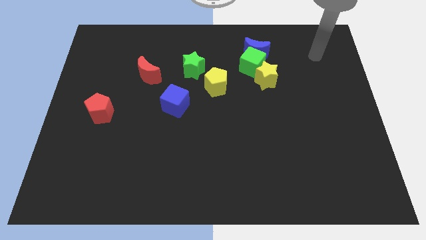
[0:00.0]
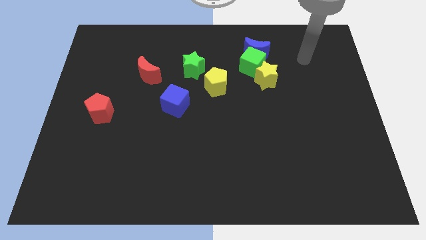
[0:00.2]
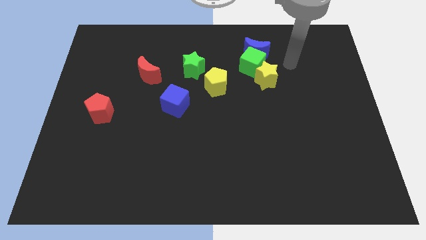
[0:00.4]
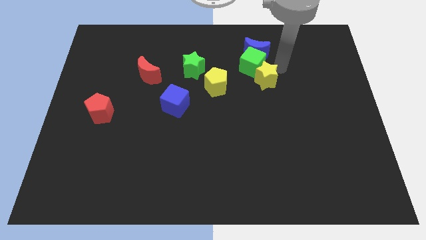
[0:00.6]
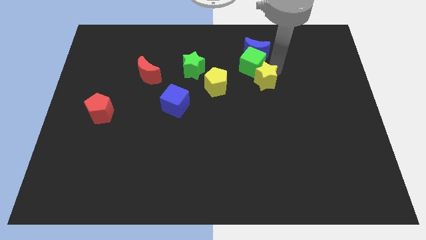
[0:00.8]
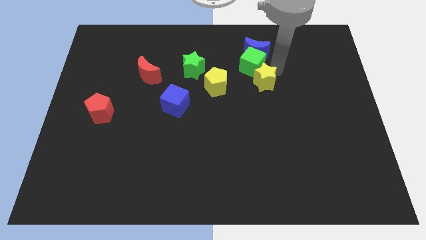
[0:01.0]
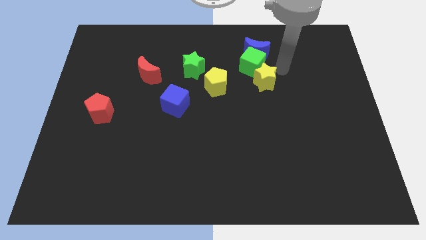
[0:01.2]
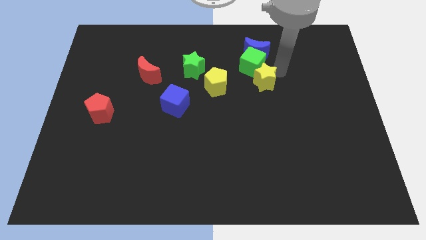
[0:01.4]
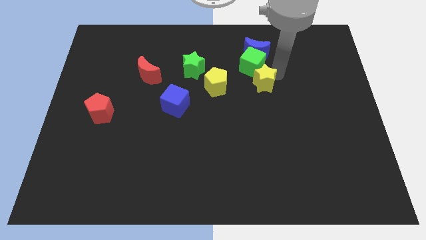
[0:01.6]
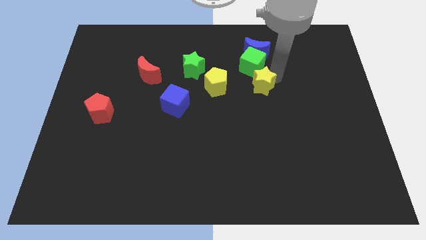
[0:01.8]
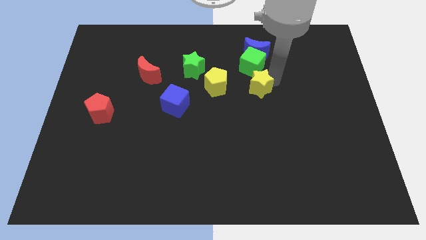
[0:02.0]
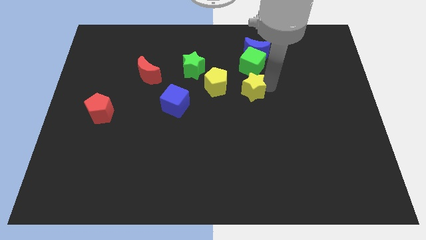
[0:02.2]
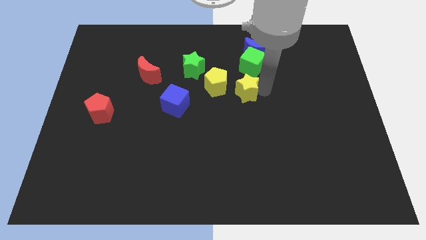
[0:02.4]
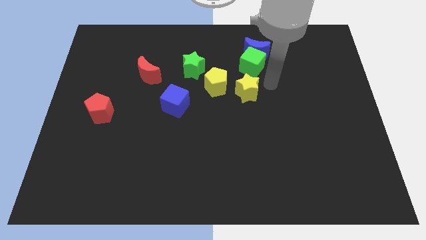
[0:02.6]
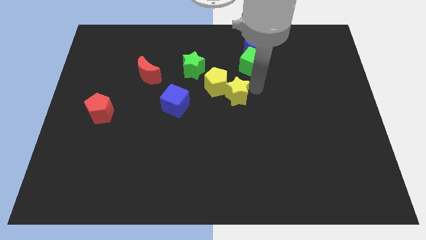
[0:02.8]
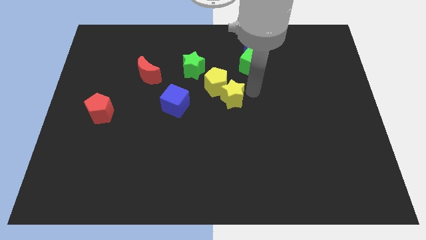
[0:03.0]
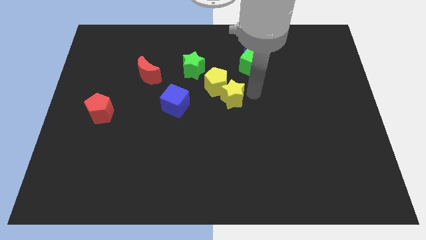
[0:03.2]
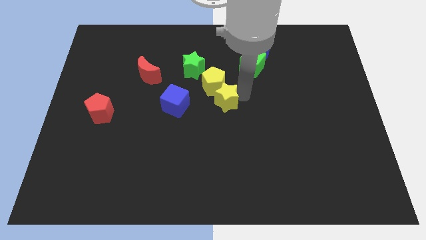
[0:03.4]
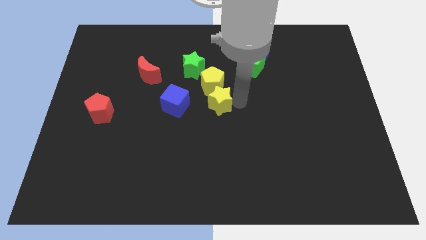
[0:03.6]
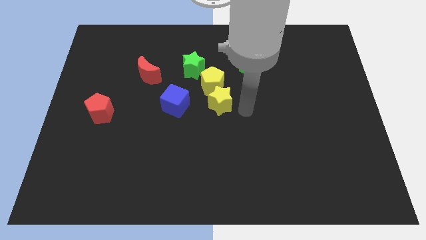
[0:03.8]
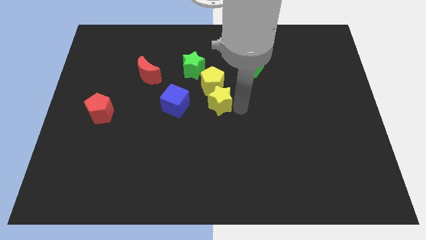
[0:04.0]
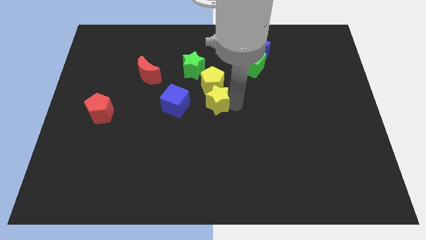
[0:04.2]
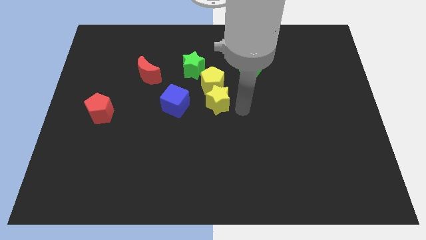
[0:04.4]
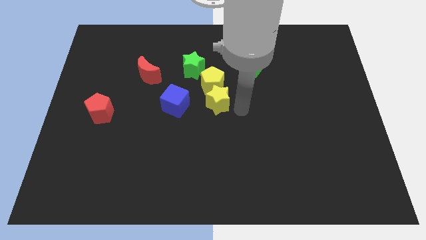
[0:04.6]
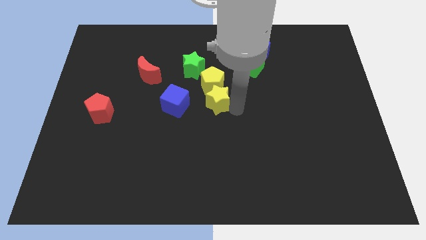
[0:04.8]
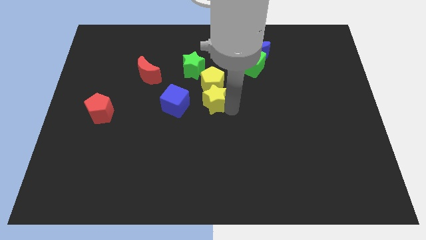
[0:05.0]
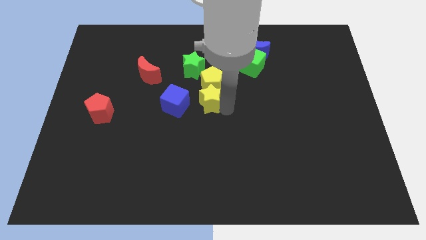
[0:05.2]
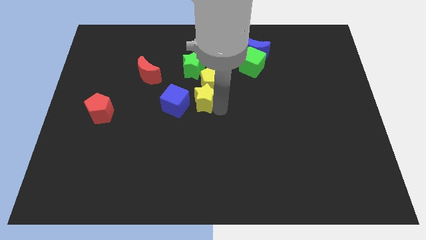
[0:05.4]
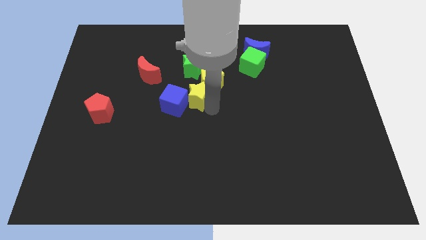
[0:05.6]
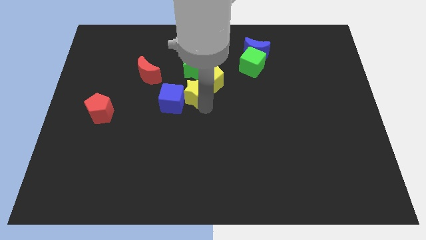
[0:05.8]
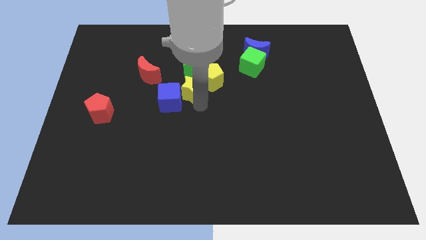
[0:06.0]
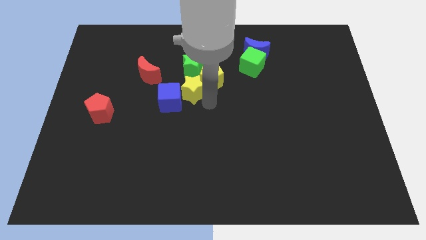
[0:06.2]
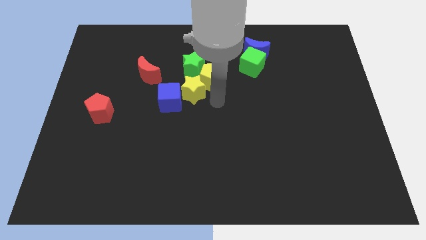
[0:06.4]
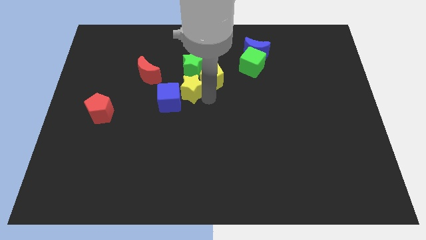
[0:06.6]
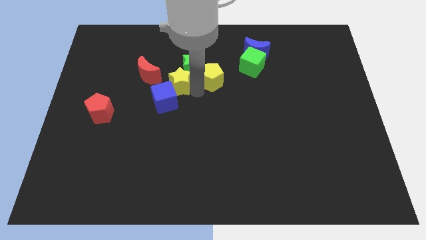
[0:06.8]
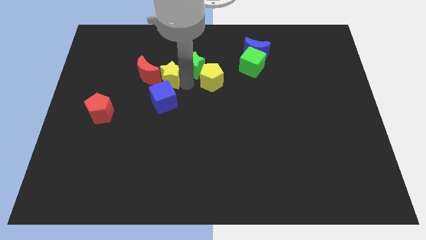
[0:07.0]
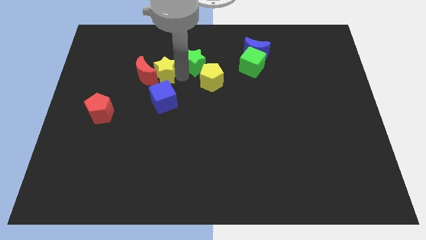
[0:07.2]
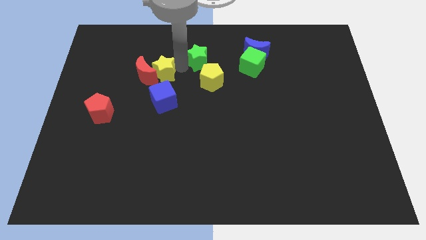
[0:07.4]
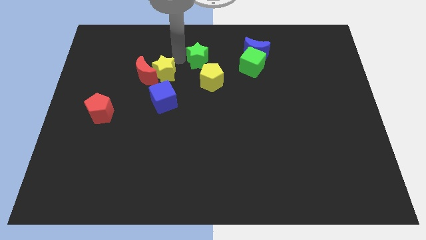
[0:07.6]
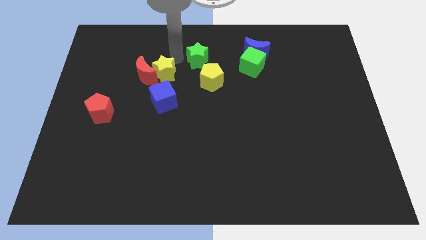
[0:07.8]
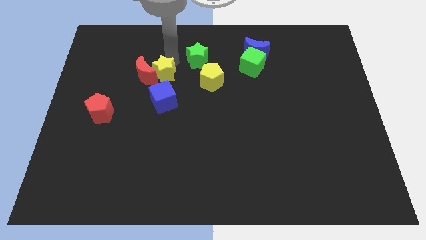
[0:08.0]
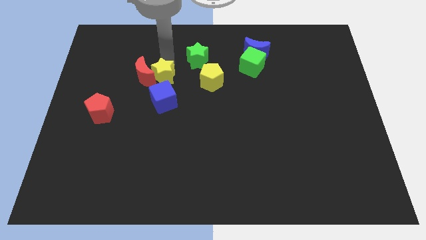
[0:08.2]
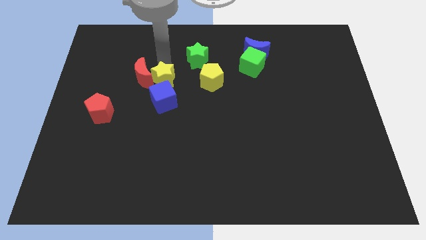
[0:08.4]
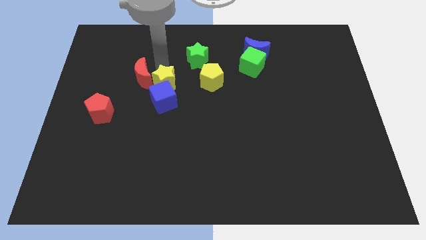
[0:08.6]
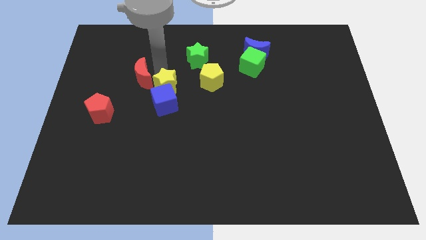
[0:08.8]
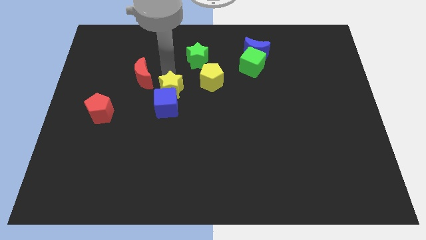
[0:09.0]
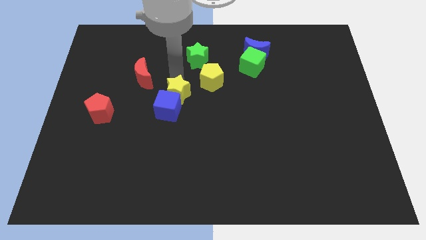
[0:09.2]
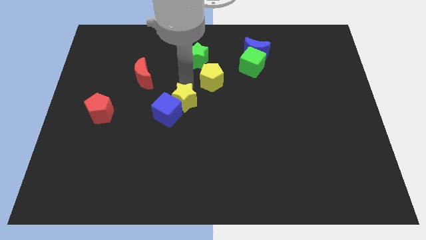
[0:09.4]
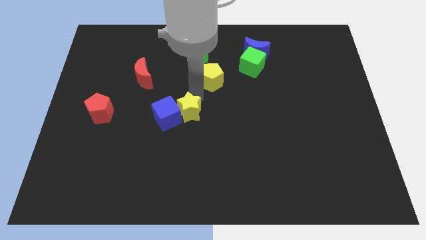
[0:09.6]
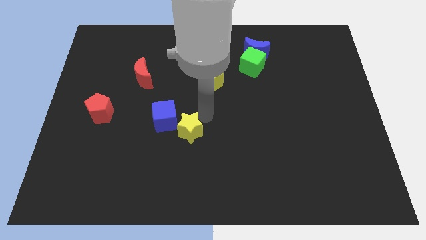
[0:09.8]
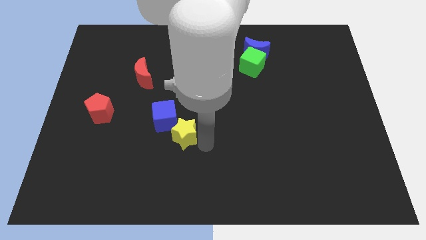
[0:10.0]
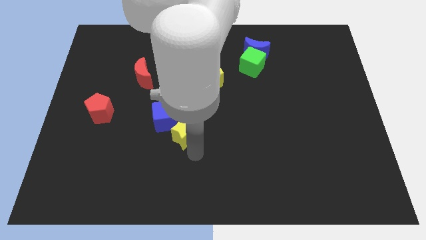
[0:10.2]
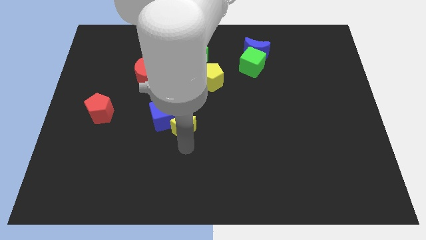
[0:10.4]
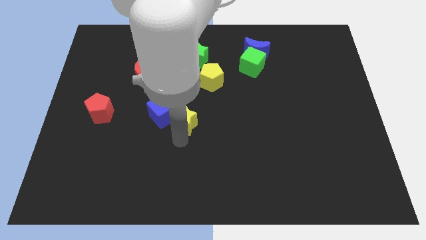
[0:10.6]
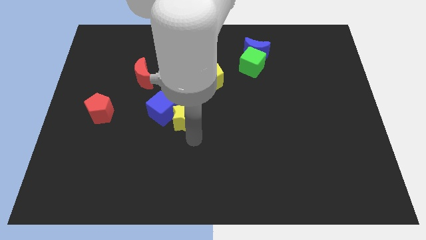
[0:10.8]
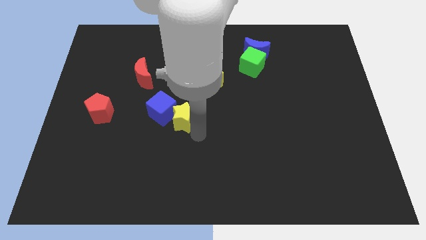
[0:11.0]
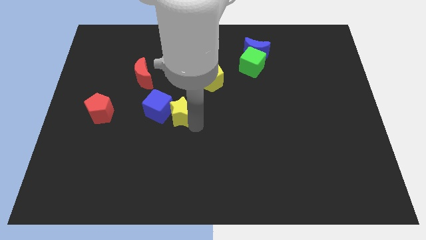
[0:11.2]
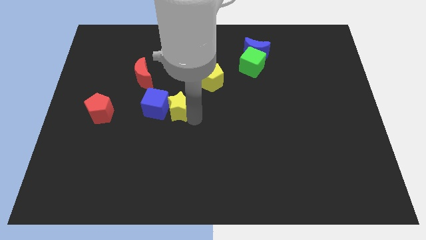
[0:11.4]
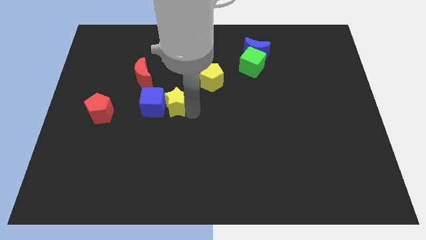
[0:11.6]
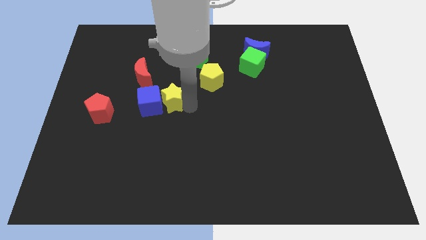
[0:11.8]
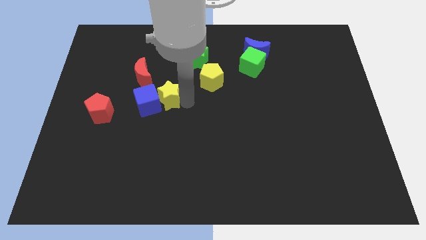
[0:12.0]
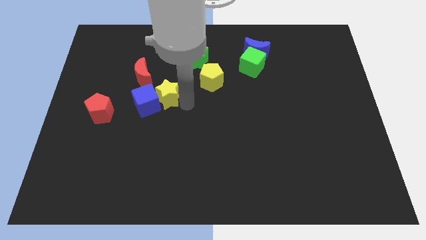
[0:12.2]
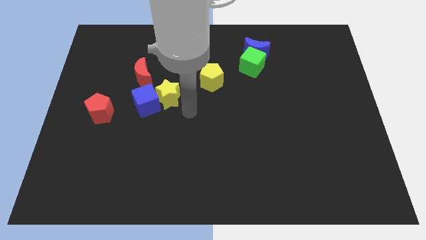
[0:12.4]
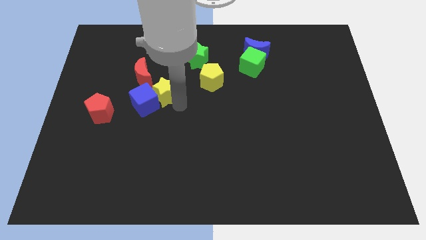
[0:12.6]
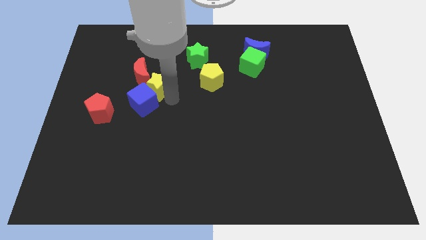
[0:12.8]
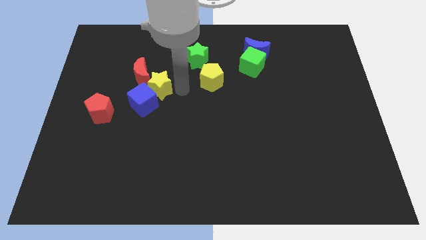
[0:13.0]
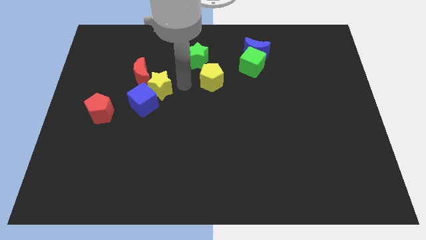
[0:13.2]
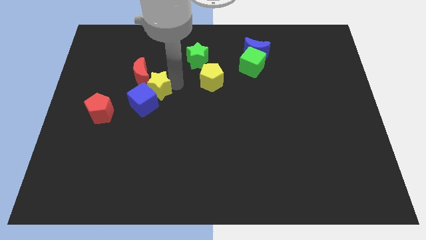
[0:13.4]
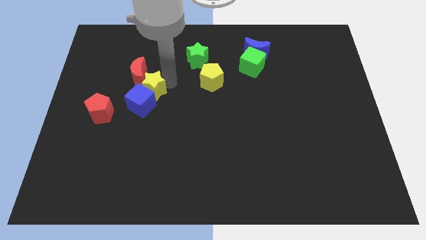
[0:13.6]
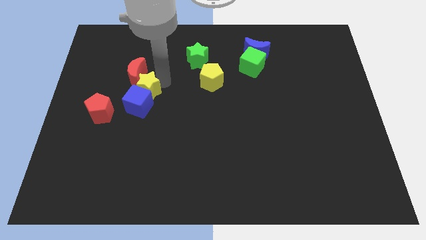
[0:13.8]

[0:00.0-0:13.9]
slide the yellow star to the top right of the red pentagon

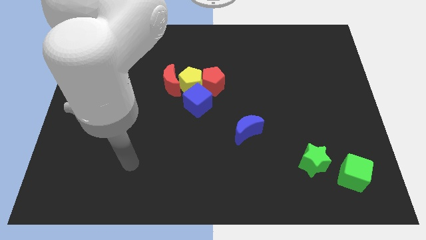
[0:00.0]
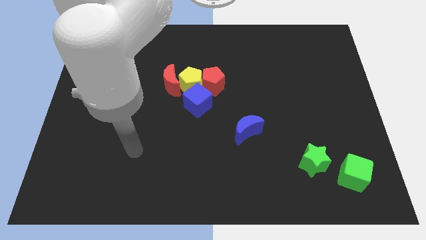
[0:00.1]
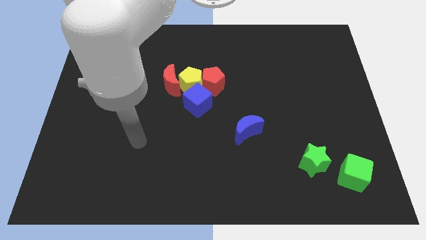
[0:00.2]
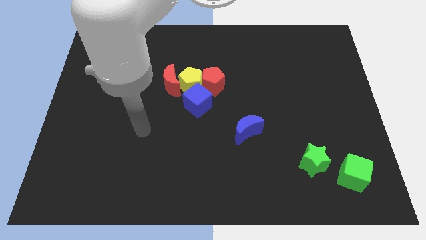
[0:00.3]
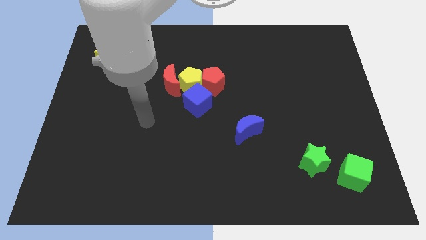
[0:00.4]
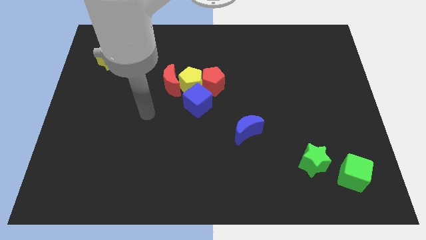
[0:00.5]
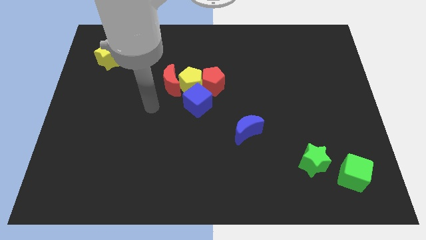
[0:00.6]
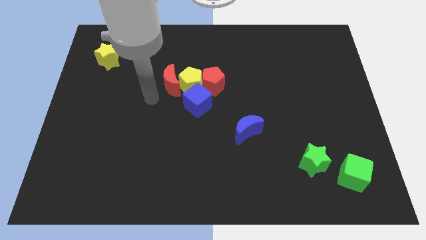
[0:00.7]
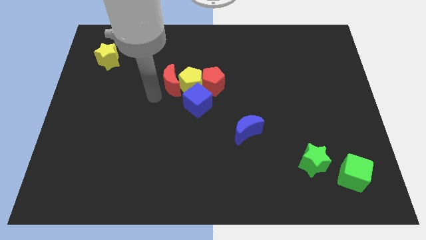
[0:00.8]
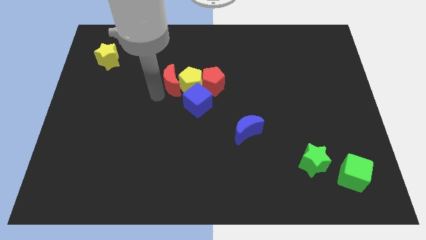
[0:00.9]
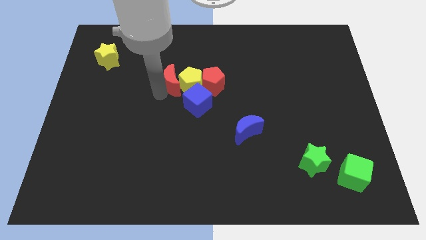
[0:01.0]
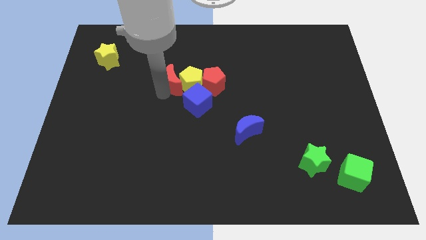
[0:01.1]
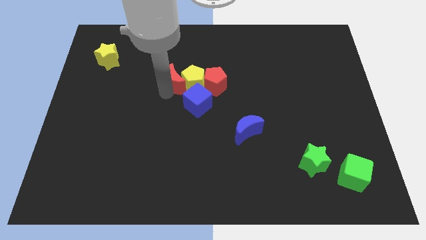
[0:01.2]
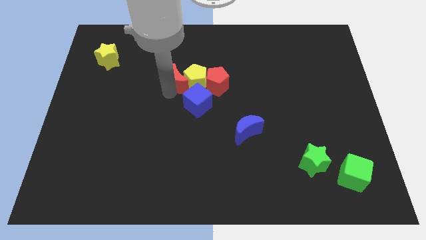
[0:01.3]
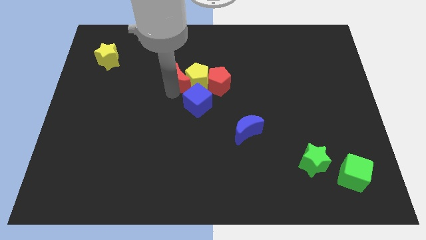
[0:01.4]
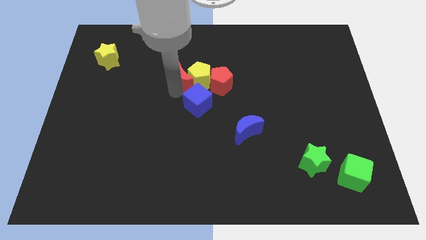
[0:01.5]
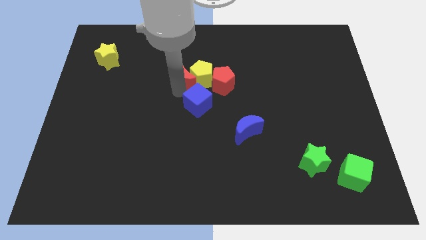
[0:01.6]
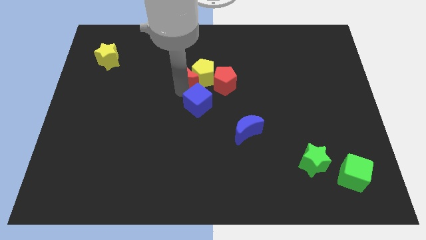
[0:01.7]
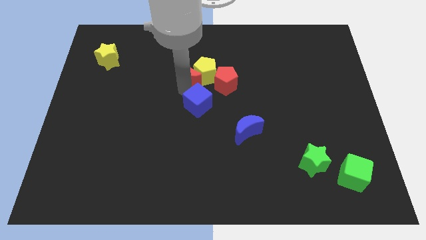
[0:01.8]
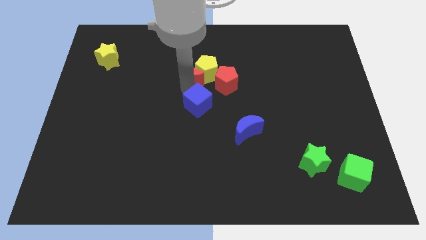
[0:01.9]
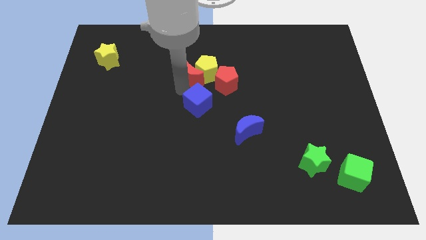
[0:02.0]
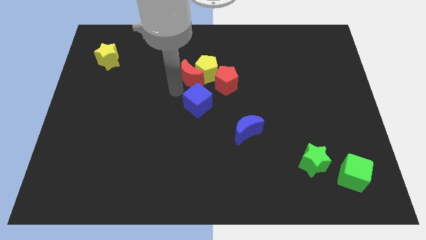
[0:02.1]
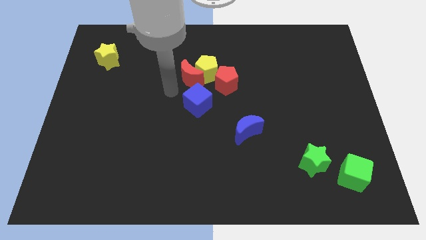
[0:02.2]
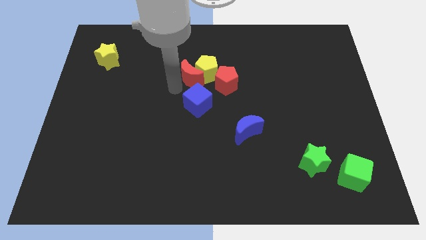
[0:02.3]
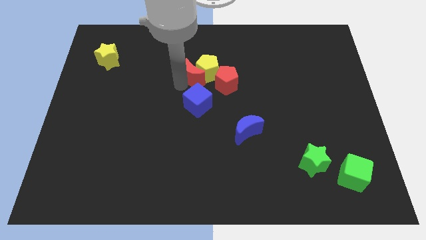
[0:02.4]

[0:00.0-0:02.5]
move the red moon diagonally up and to the left of the red pentagon
